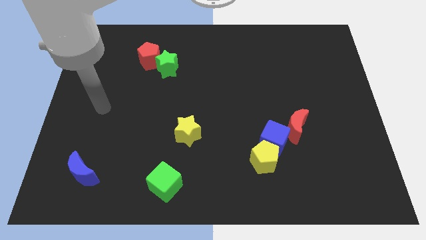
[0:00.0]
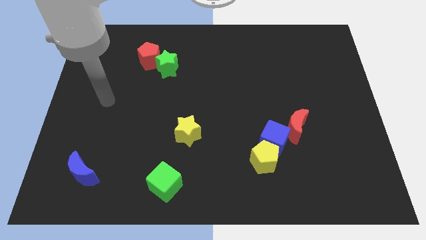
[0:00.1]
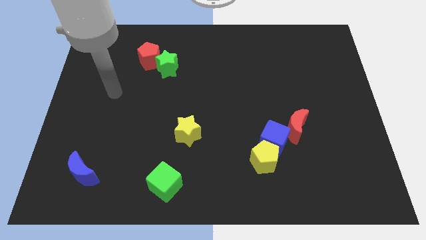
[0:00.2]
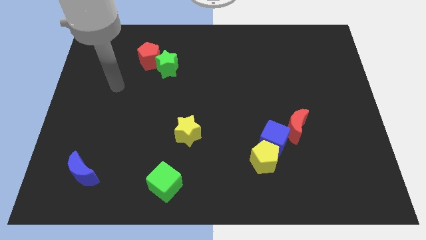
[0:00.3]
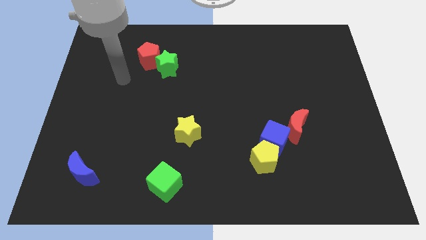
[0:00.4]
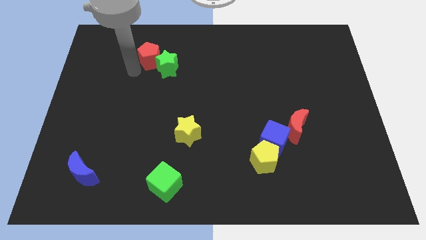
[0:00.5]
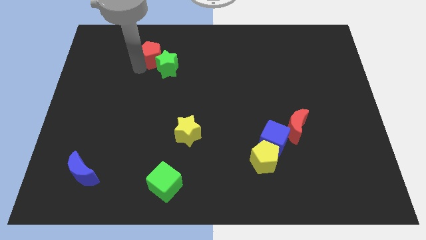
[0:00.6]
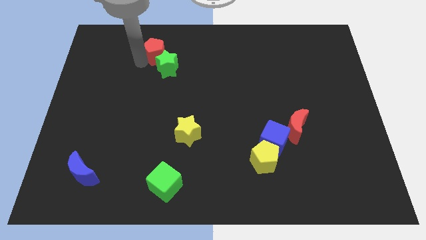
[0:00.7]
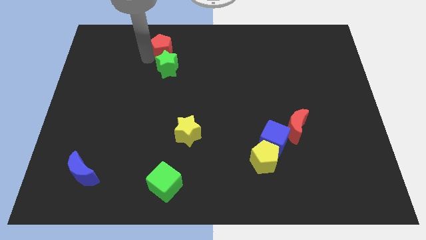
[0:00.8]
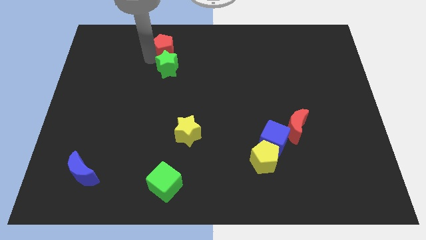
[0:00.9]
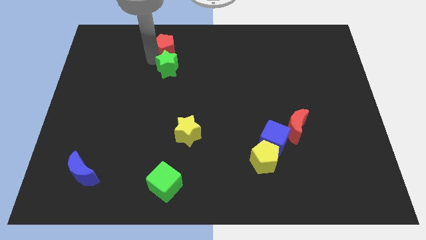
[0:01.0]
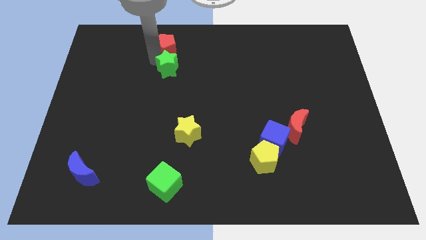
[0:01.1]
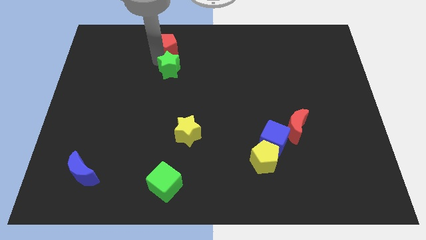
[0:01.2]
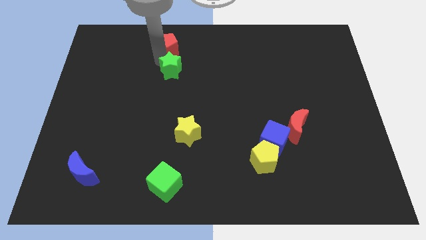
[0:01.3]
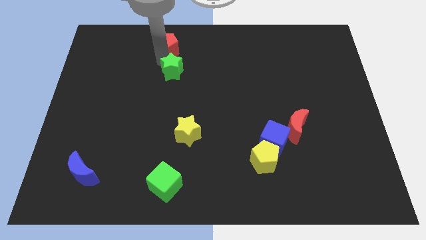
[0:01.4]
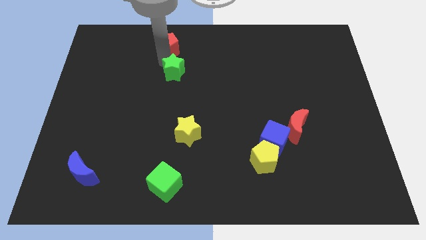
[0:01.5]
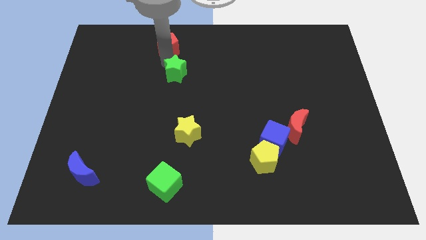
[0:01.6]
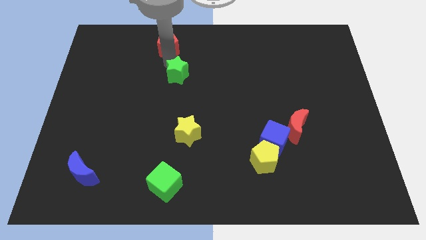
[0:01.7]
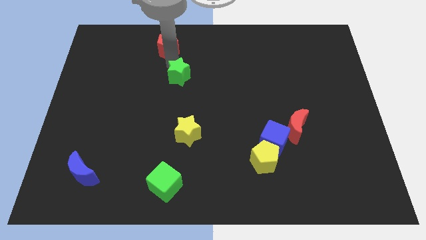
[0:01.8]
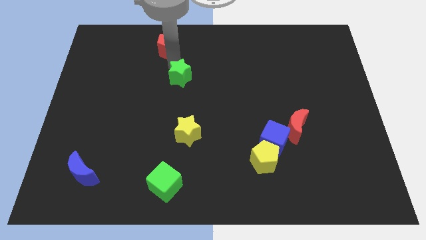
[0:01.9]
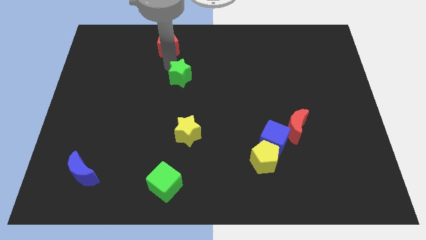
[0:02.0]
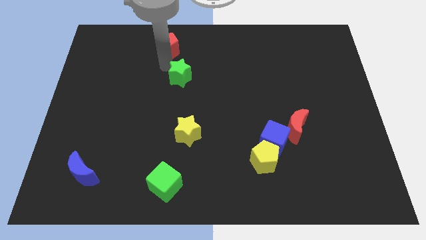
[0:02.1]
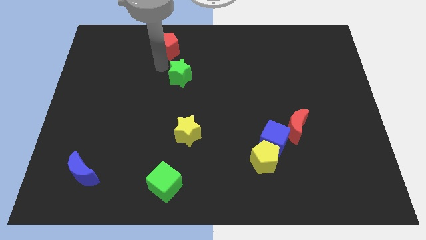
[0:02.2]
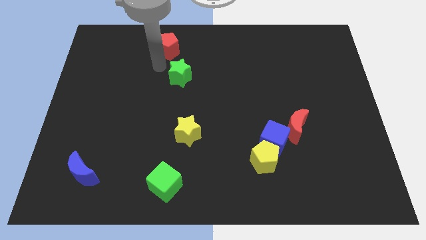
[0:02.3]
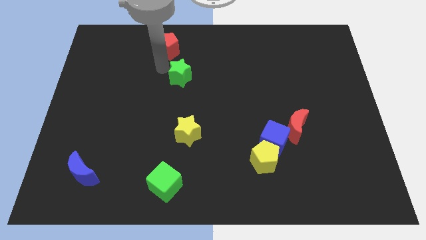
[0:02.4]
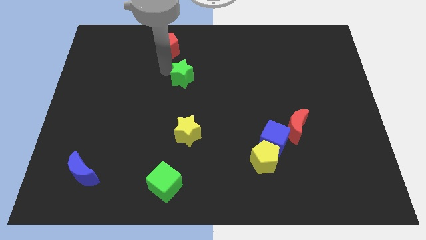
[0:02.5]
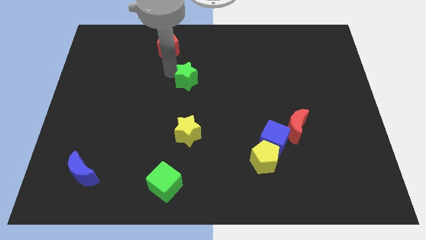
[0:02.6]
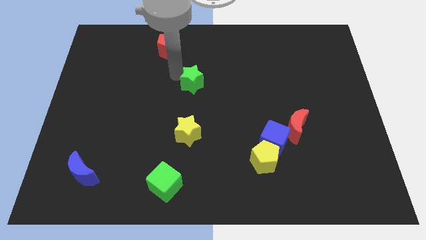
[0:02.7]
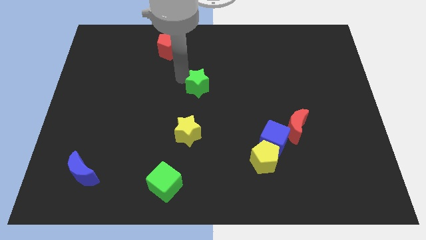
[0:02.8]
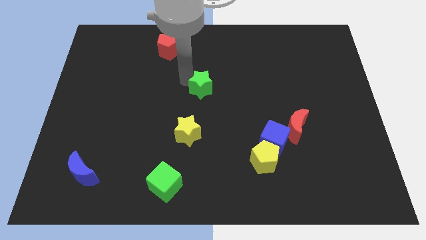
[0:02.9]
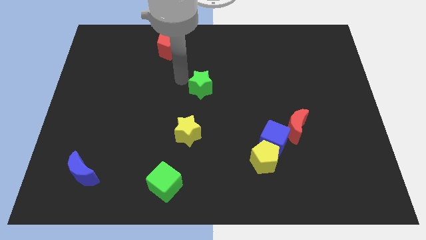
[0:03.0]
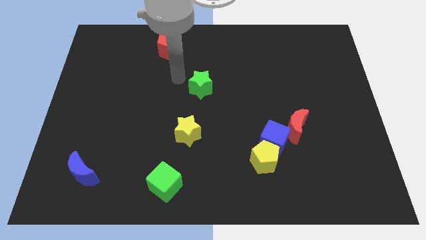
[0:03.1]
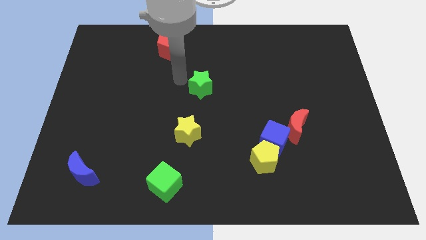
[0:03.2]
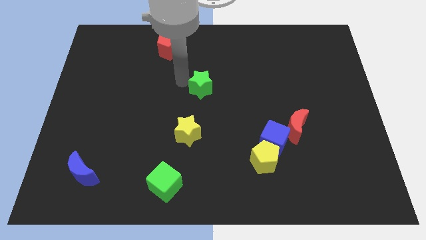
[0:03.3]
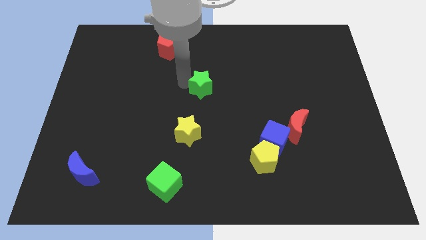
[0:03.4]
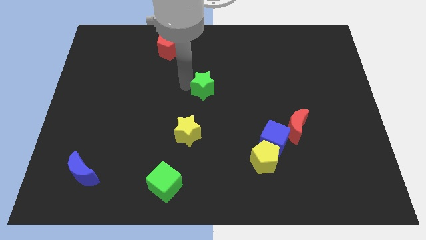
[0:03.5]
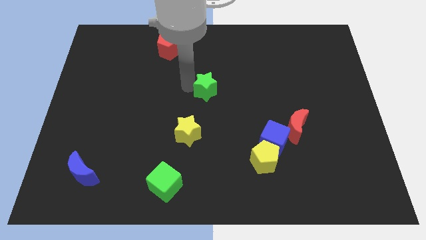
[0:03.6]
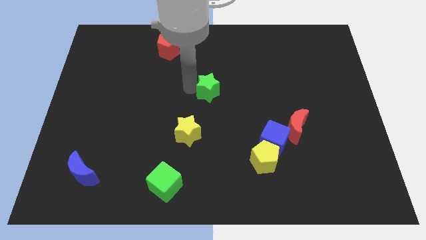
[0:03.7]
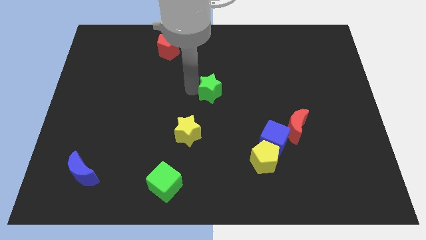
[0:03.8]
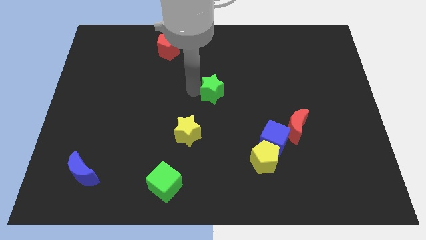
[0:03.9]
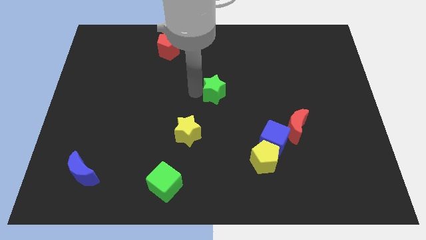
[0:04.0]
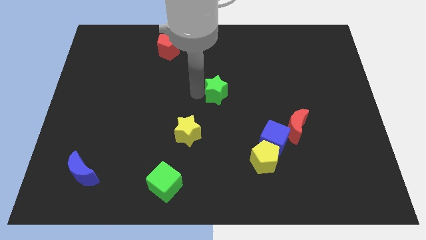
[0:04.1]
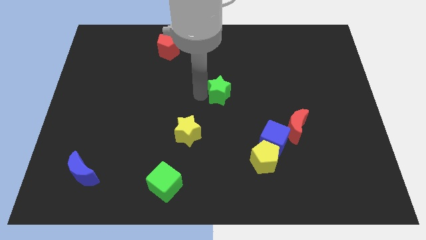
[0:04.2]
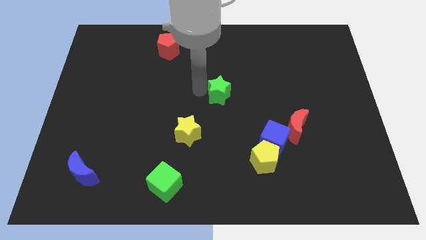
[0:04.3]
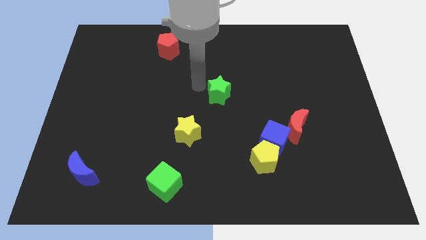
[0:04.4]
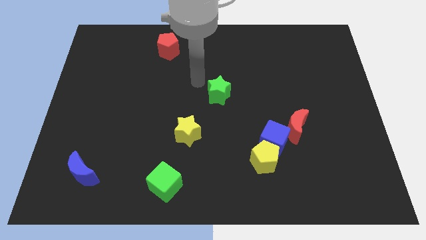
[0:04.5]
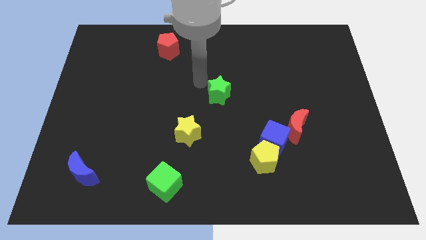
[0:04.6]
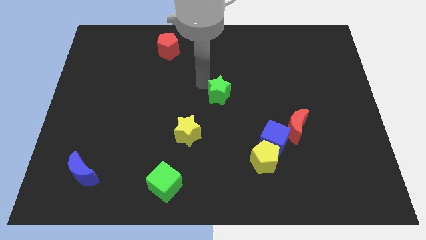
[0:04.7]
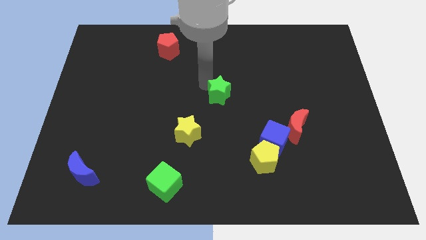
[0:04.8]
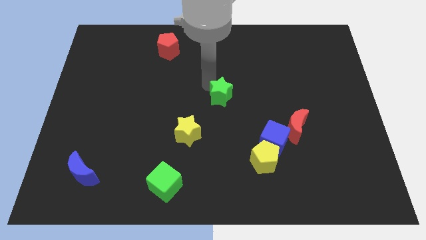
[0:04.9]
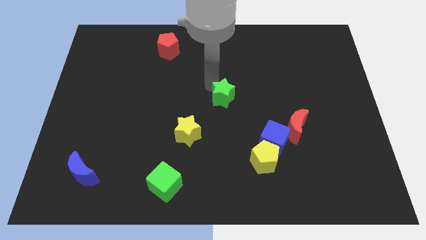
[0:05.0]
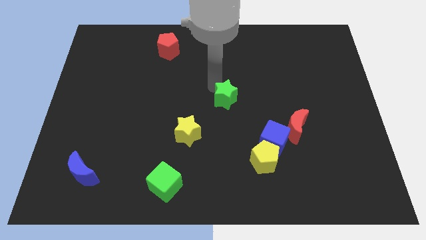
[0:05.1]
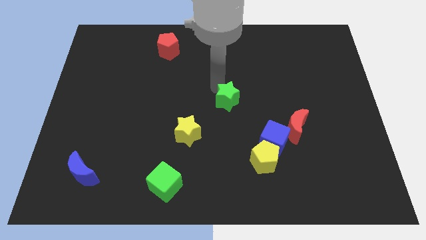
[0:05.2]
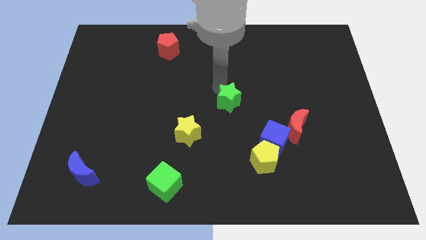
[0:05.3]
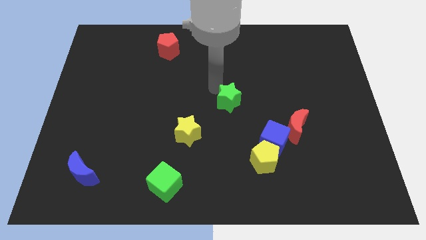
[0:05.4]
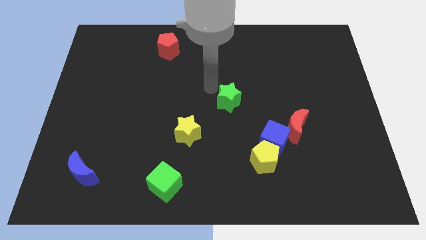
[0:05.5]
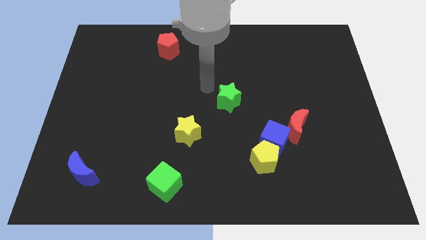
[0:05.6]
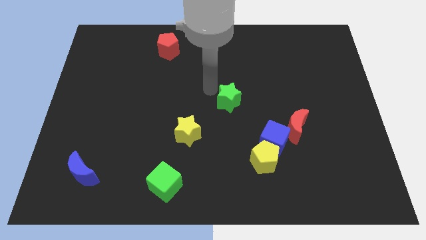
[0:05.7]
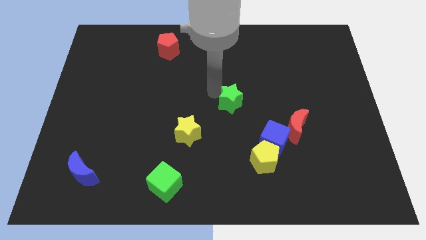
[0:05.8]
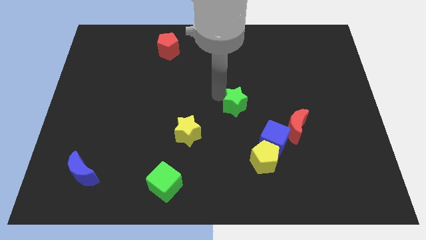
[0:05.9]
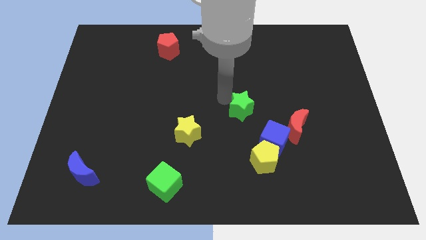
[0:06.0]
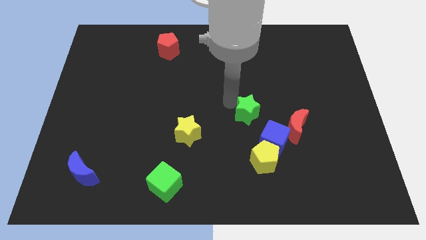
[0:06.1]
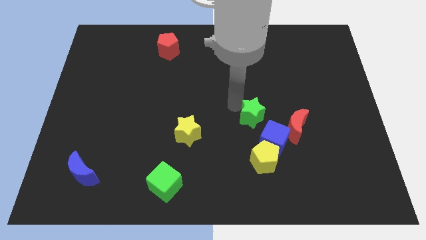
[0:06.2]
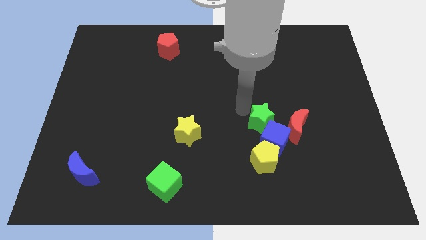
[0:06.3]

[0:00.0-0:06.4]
push the green star close to the blue cube

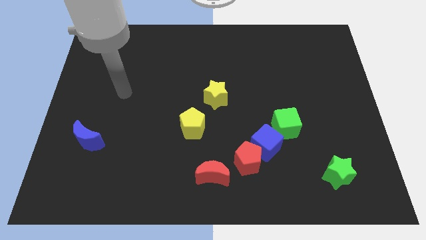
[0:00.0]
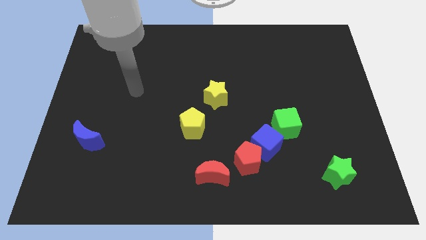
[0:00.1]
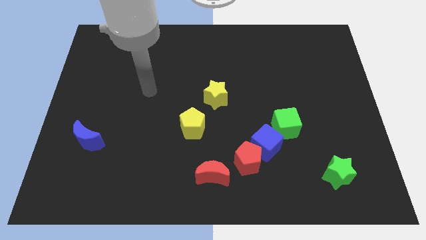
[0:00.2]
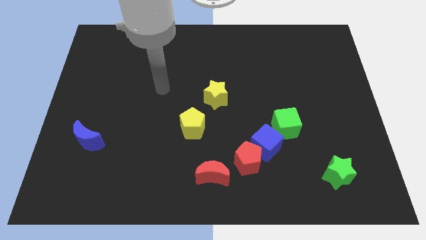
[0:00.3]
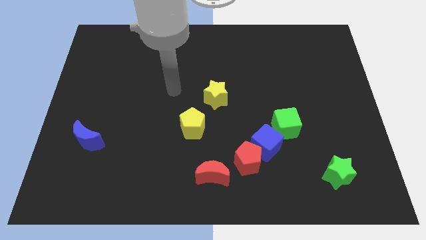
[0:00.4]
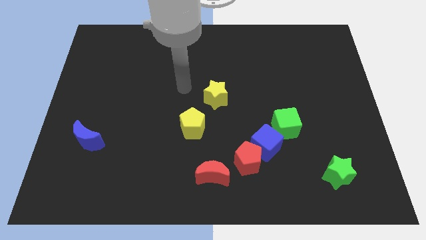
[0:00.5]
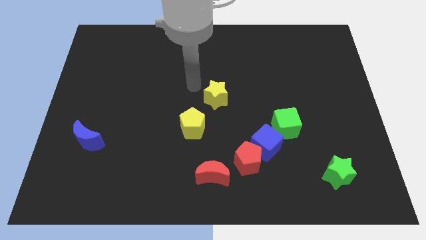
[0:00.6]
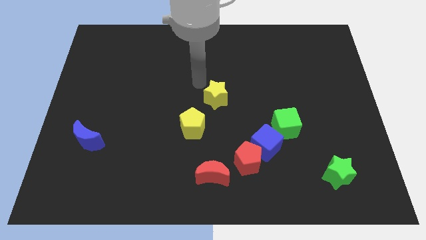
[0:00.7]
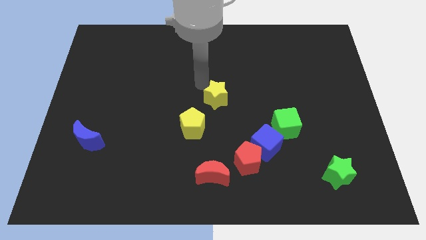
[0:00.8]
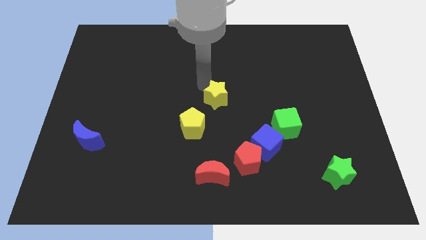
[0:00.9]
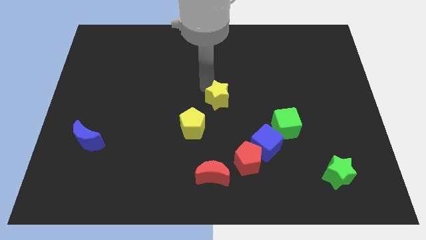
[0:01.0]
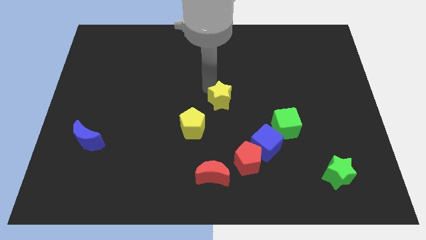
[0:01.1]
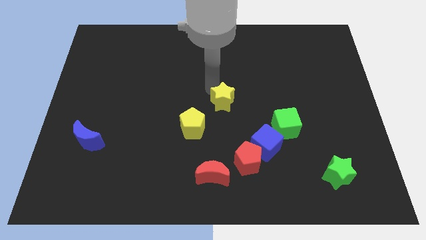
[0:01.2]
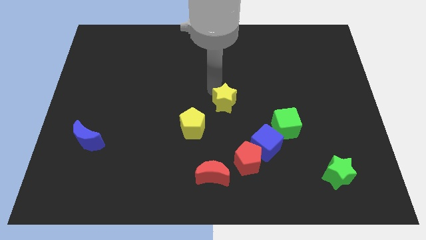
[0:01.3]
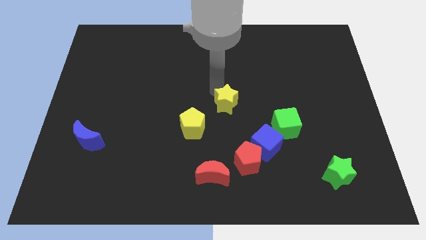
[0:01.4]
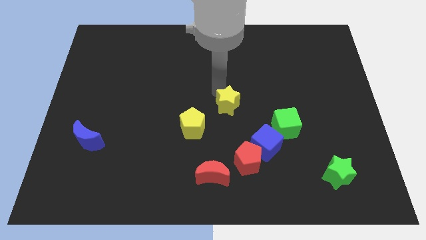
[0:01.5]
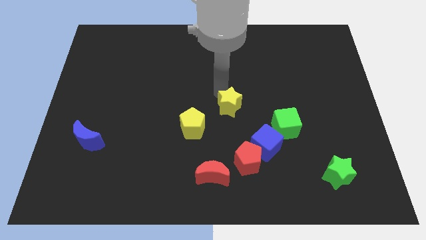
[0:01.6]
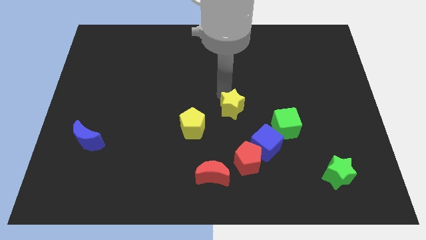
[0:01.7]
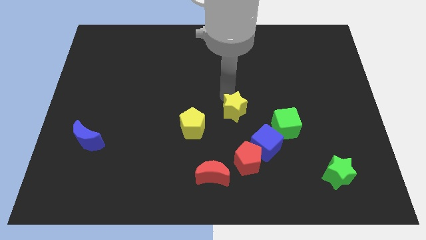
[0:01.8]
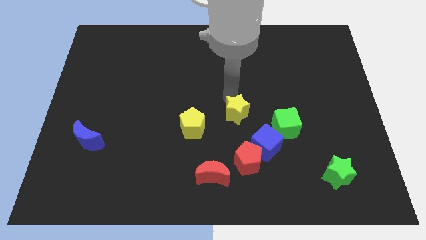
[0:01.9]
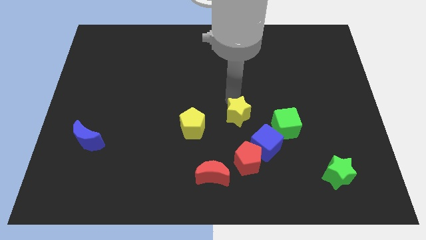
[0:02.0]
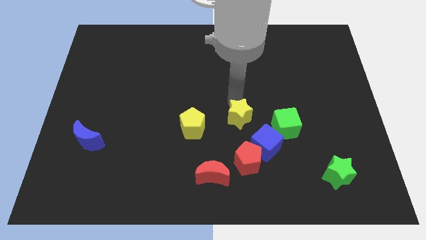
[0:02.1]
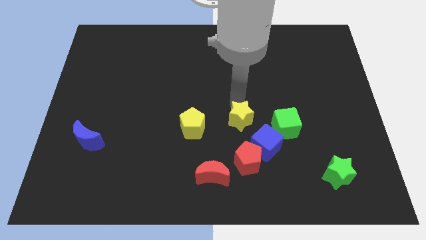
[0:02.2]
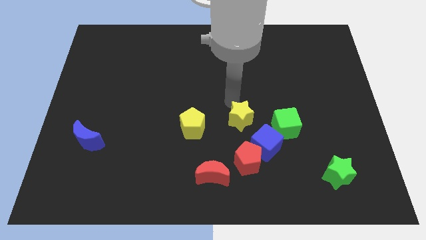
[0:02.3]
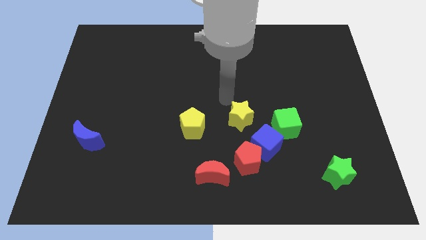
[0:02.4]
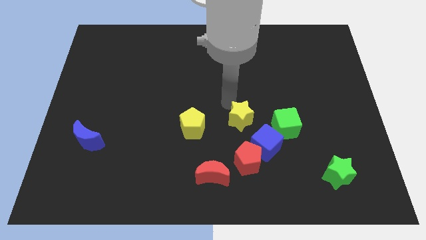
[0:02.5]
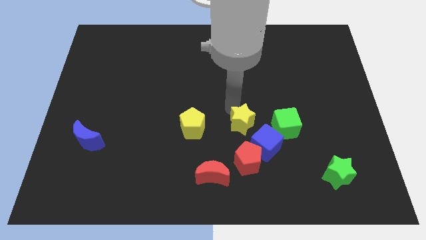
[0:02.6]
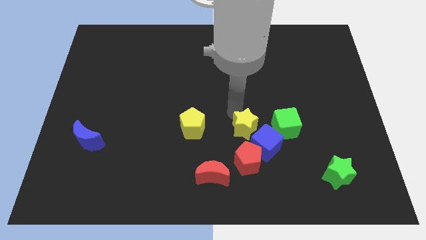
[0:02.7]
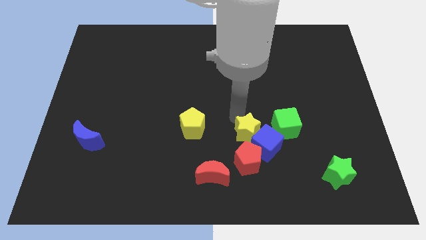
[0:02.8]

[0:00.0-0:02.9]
move the yellow star close to the blue cube
